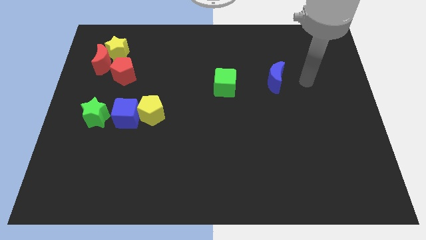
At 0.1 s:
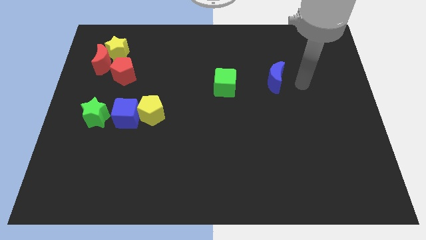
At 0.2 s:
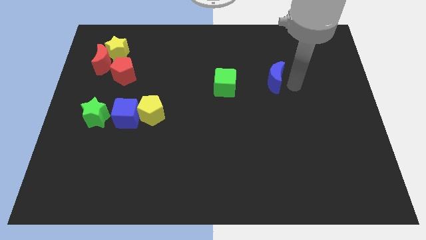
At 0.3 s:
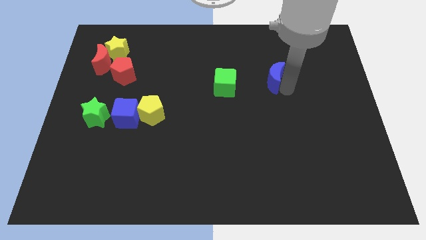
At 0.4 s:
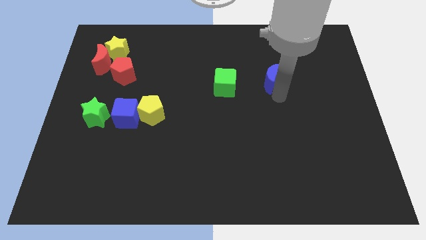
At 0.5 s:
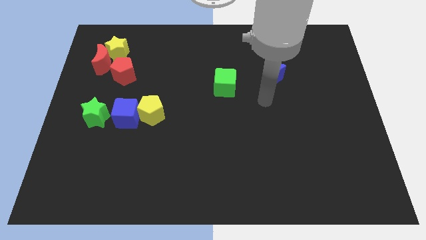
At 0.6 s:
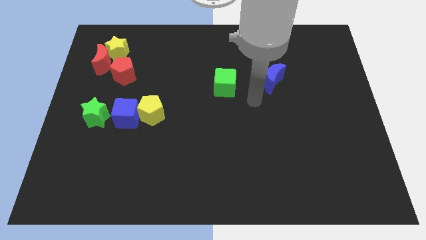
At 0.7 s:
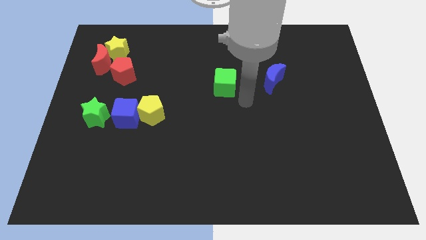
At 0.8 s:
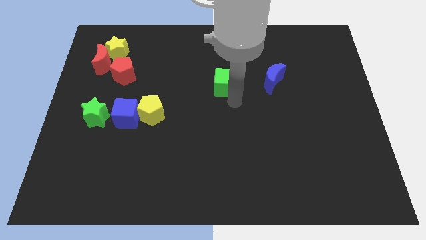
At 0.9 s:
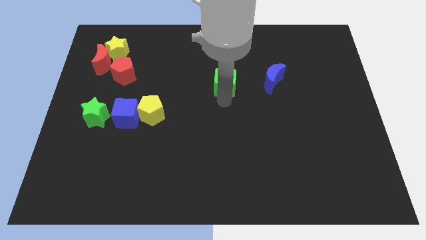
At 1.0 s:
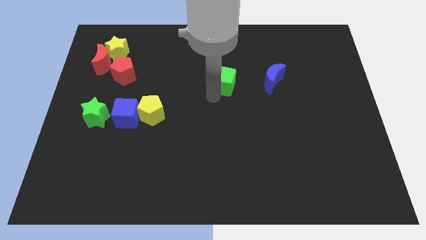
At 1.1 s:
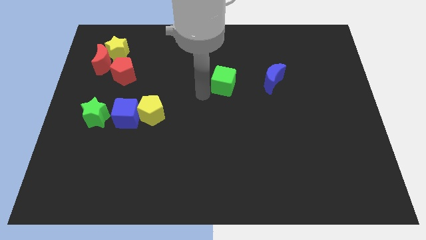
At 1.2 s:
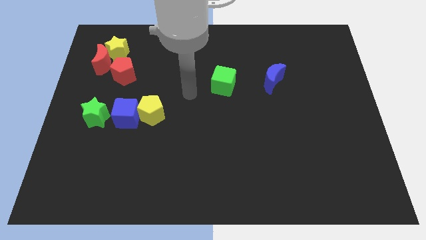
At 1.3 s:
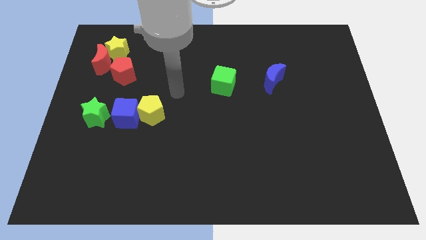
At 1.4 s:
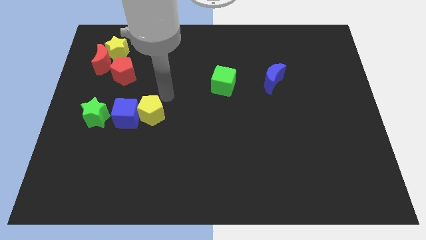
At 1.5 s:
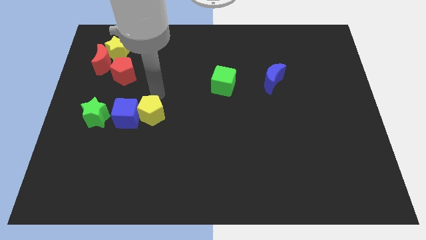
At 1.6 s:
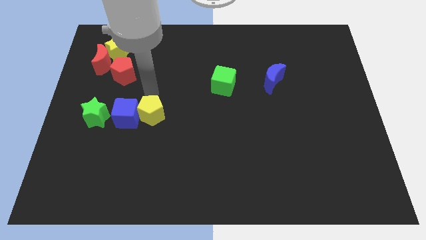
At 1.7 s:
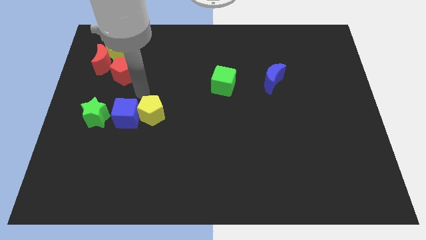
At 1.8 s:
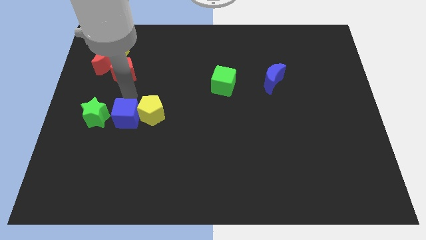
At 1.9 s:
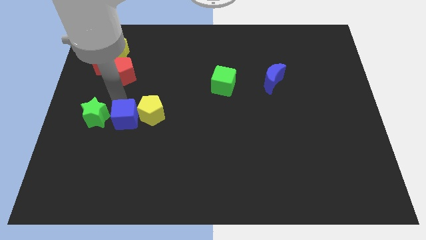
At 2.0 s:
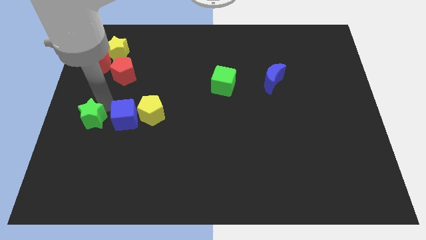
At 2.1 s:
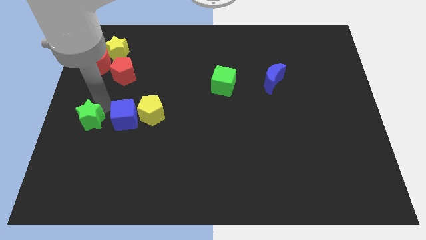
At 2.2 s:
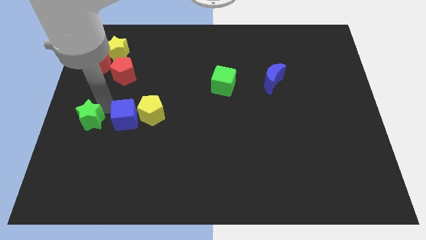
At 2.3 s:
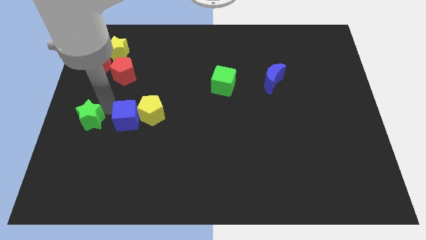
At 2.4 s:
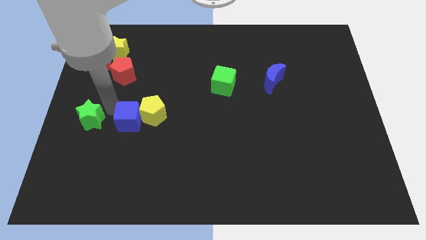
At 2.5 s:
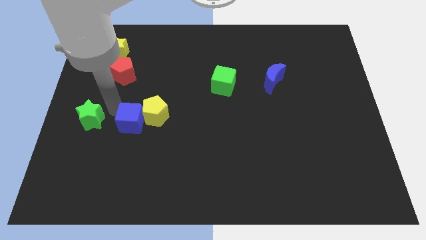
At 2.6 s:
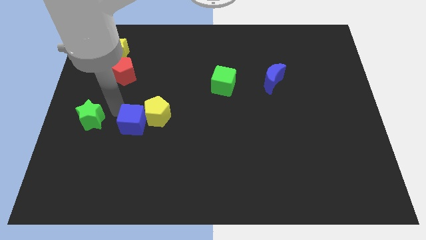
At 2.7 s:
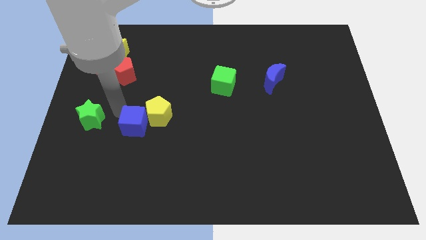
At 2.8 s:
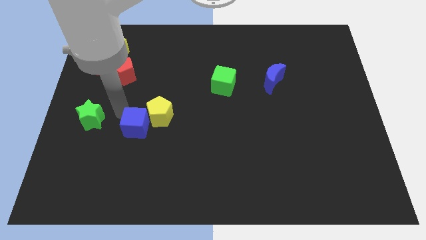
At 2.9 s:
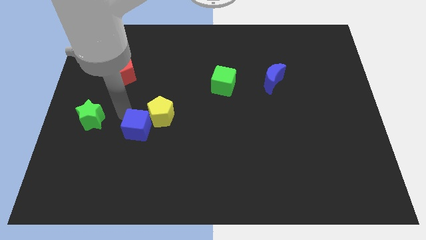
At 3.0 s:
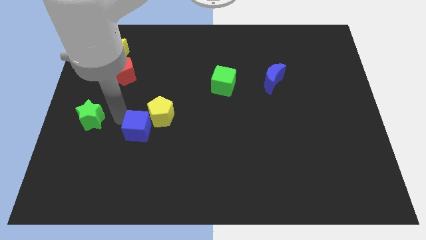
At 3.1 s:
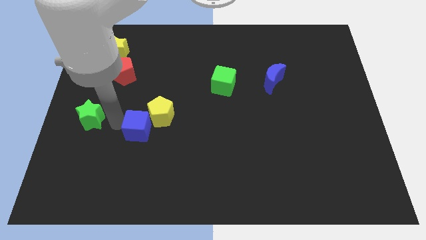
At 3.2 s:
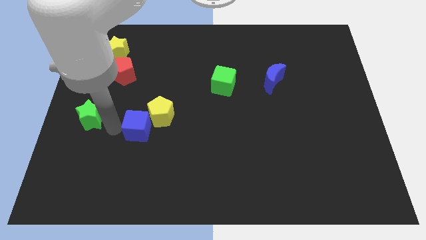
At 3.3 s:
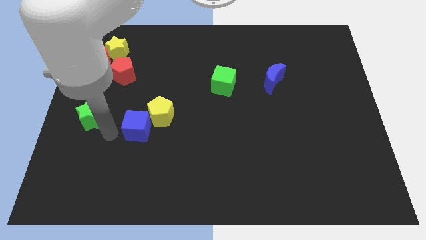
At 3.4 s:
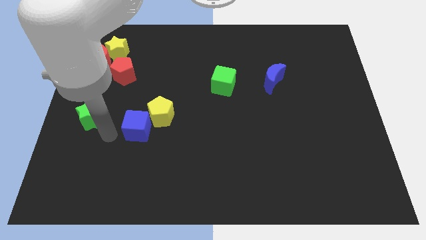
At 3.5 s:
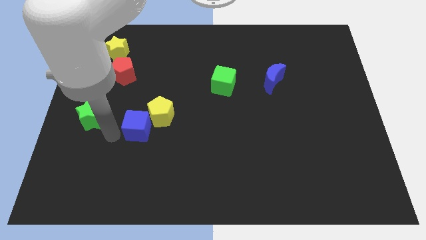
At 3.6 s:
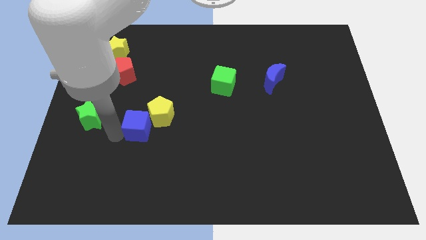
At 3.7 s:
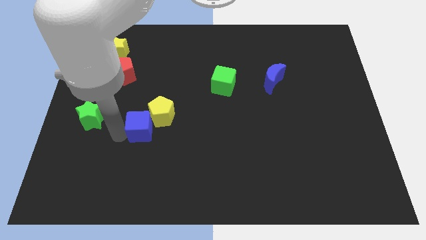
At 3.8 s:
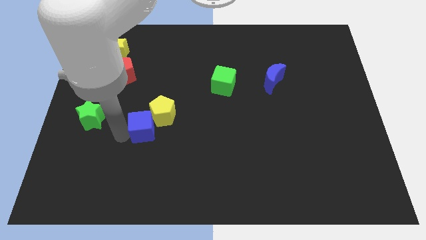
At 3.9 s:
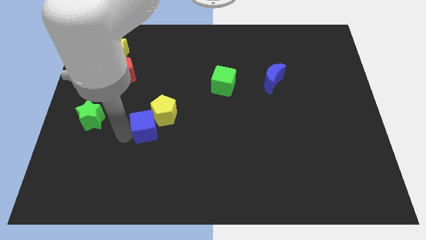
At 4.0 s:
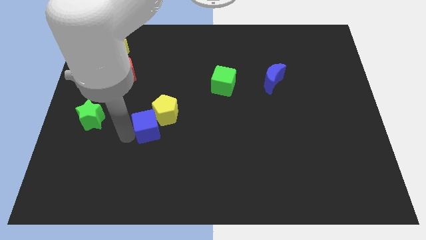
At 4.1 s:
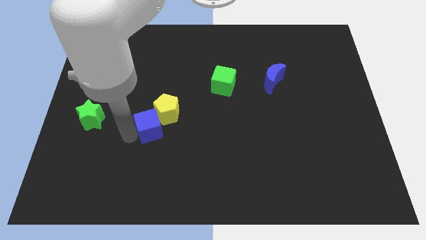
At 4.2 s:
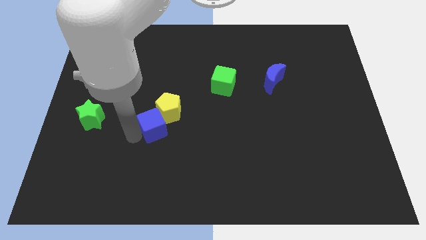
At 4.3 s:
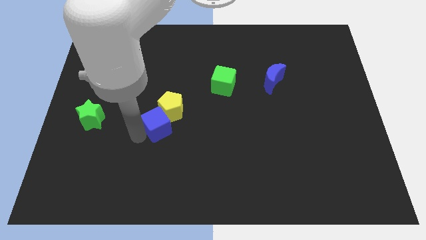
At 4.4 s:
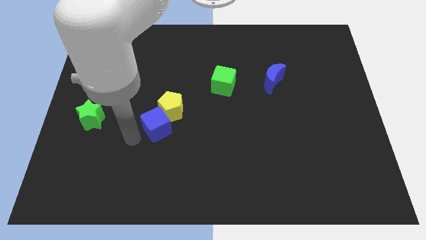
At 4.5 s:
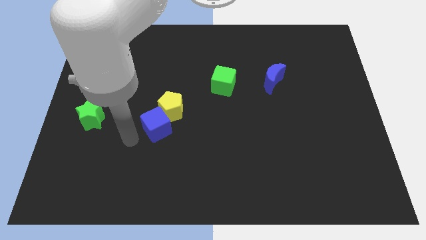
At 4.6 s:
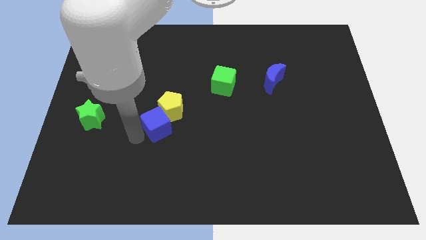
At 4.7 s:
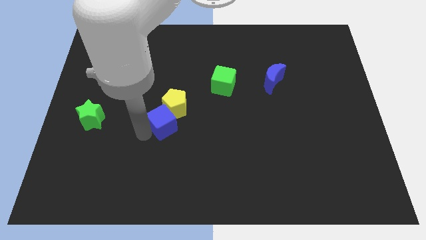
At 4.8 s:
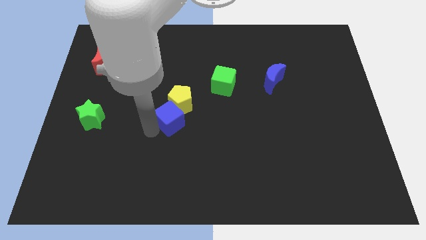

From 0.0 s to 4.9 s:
put the blue cube to the center

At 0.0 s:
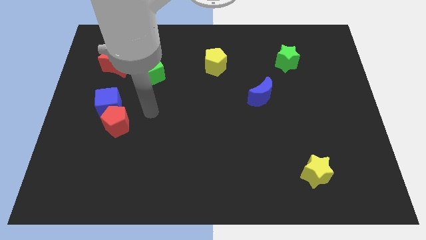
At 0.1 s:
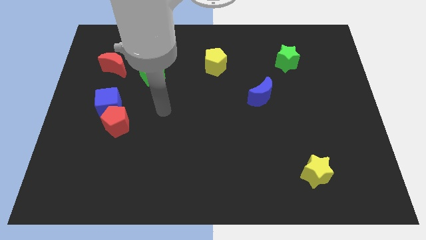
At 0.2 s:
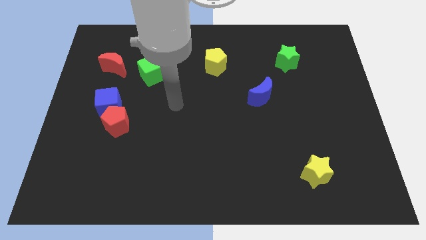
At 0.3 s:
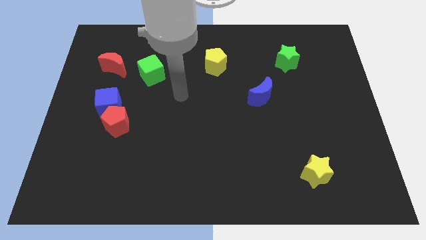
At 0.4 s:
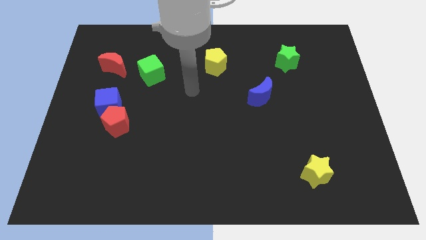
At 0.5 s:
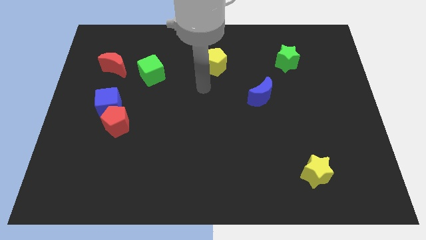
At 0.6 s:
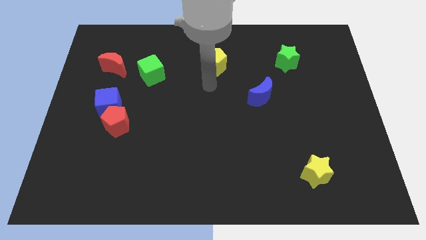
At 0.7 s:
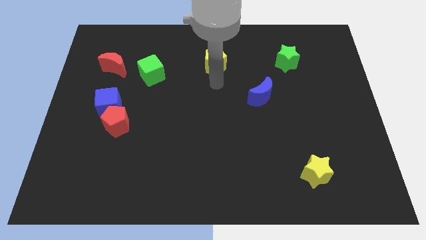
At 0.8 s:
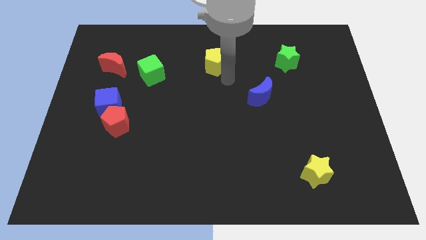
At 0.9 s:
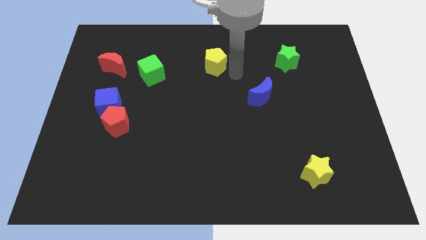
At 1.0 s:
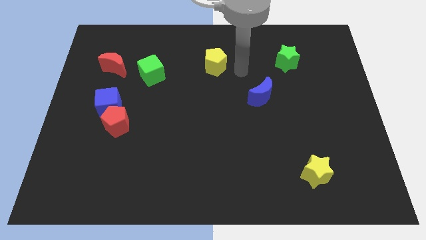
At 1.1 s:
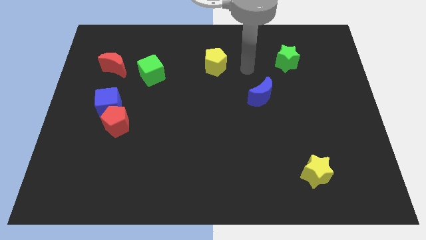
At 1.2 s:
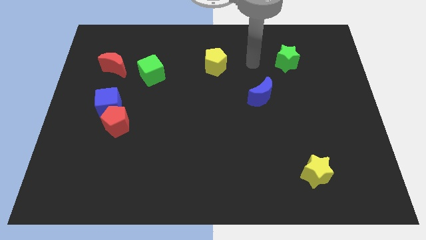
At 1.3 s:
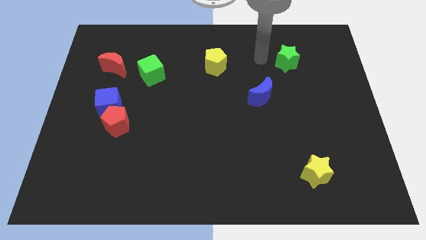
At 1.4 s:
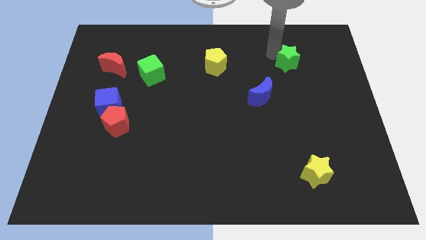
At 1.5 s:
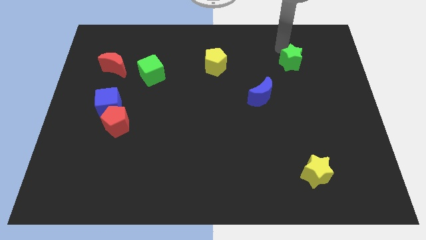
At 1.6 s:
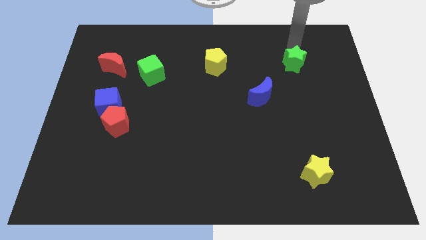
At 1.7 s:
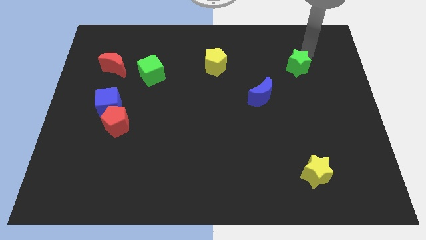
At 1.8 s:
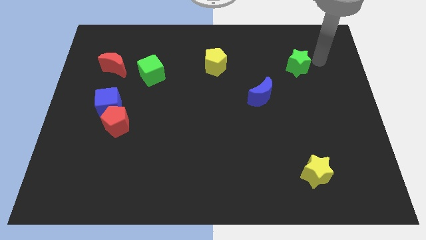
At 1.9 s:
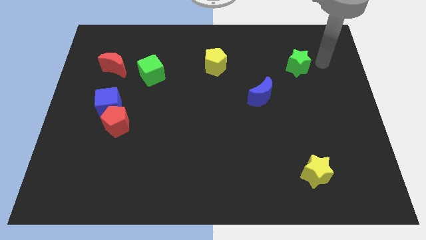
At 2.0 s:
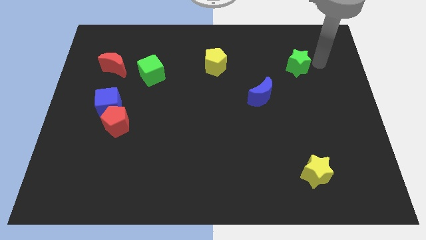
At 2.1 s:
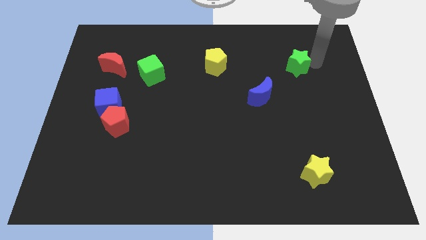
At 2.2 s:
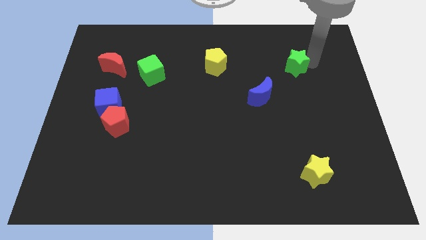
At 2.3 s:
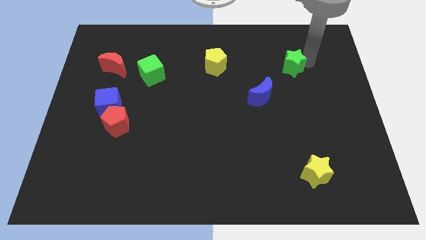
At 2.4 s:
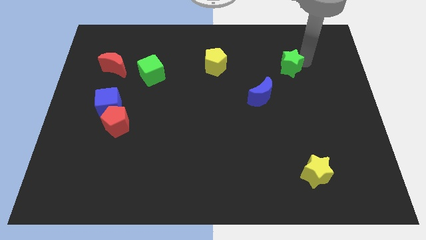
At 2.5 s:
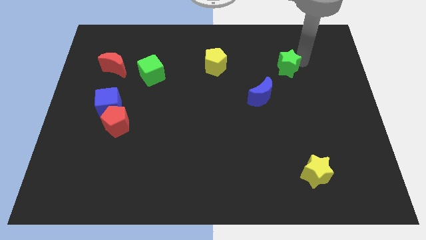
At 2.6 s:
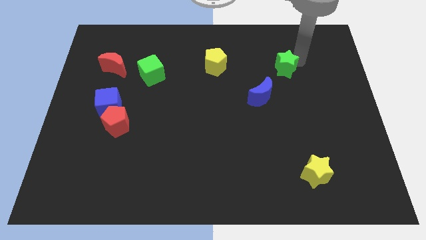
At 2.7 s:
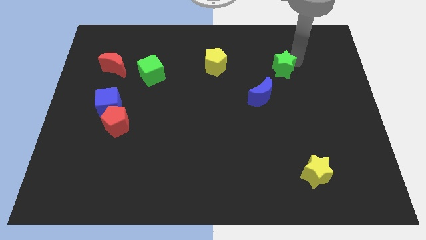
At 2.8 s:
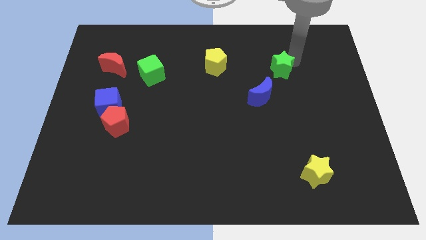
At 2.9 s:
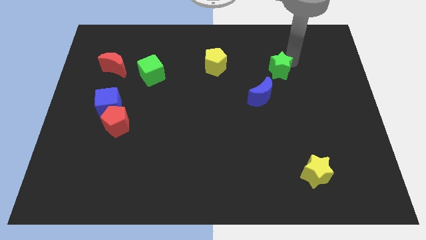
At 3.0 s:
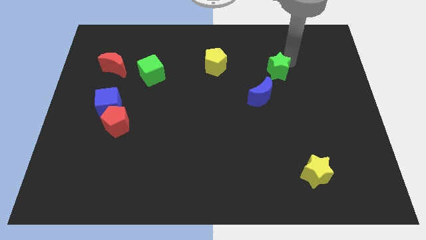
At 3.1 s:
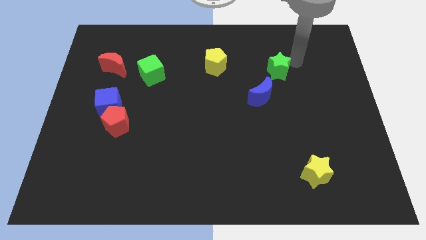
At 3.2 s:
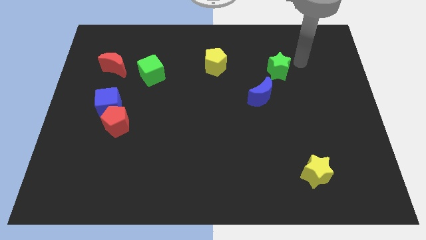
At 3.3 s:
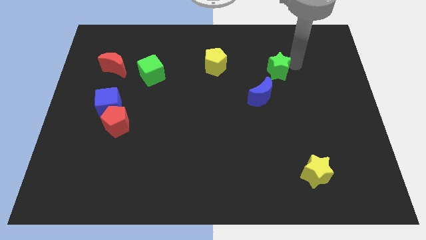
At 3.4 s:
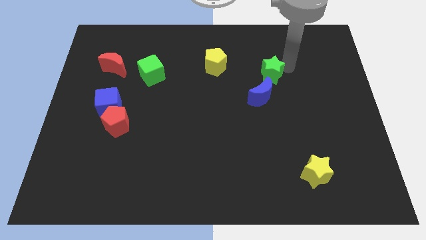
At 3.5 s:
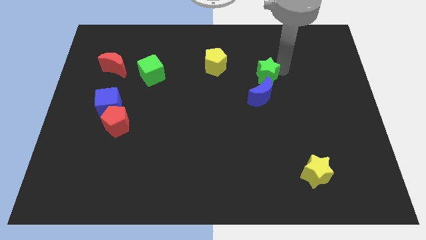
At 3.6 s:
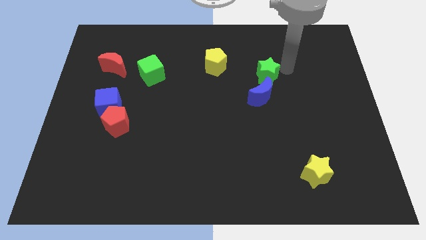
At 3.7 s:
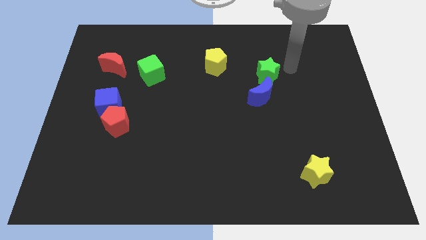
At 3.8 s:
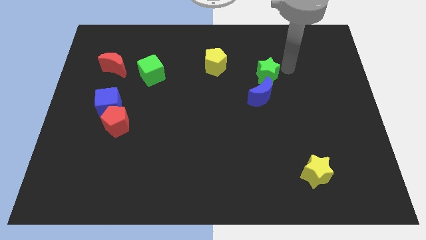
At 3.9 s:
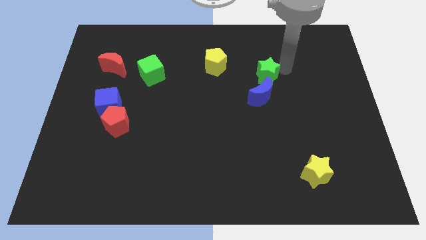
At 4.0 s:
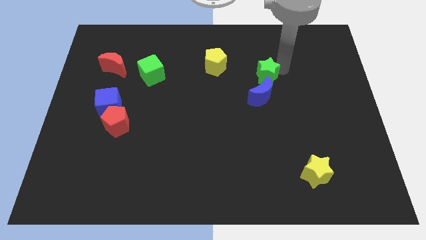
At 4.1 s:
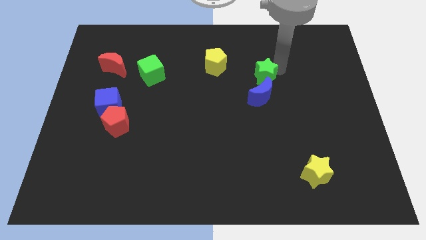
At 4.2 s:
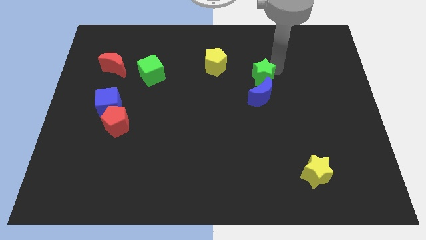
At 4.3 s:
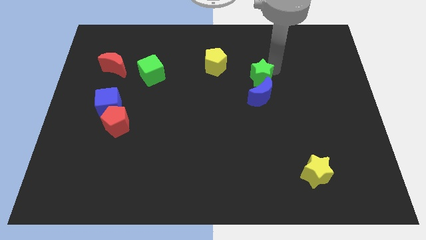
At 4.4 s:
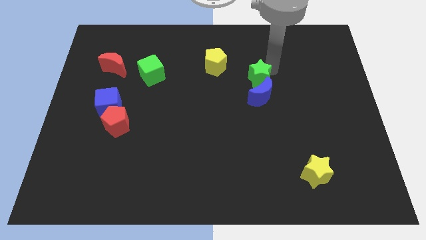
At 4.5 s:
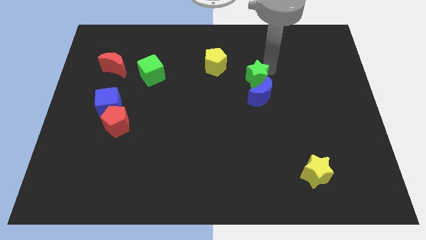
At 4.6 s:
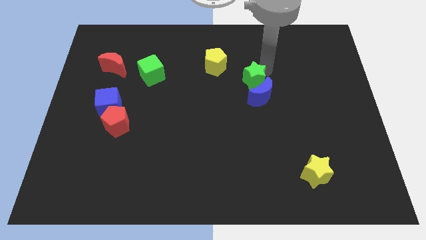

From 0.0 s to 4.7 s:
push the green star to the middle of the board
